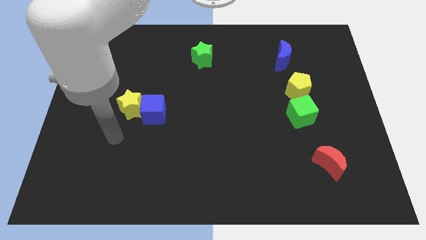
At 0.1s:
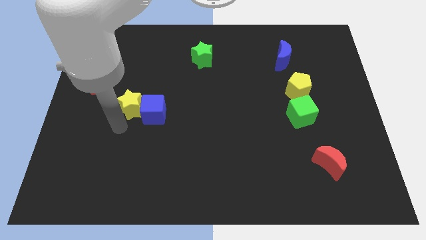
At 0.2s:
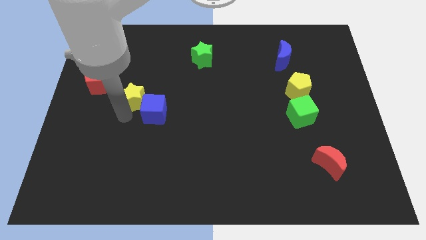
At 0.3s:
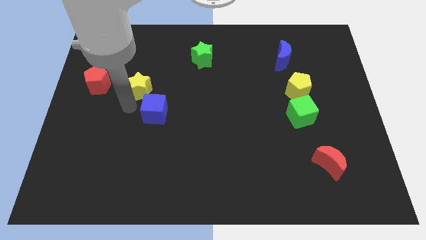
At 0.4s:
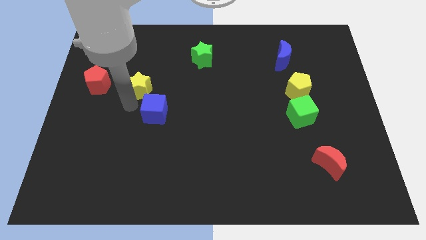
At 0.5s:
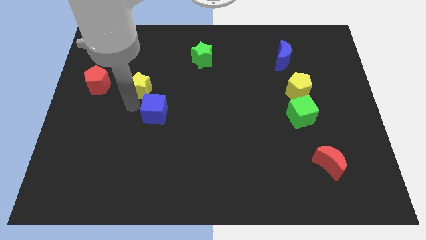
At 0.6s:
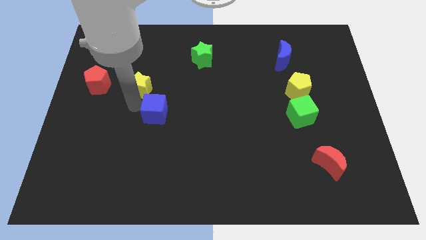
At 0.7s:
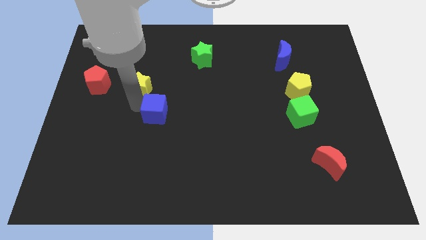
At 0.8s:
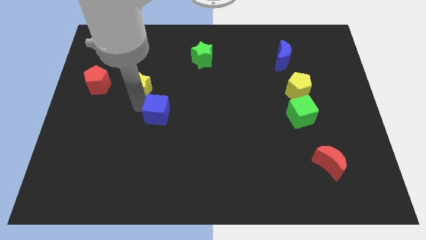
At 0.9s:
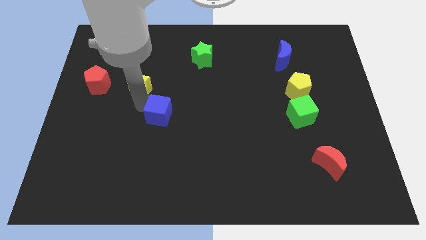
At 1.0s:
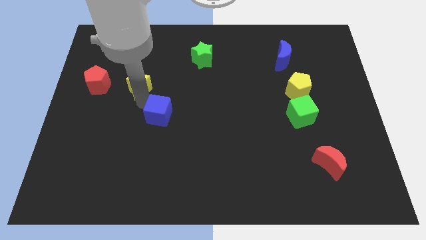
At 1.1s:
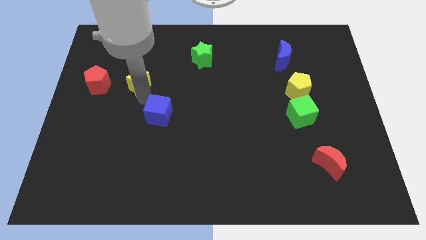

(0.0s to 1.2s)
pull the blue cube apart from the yellow star

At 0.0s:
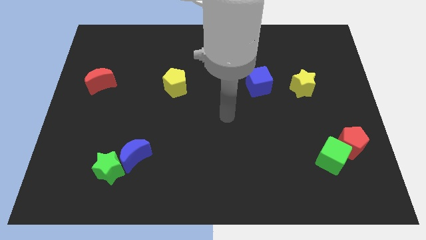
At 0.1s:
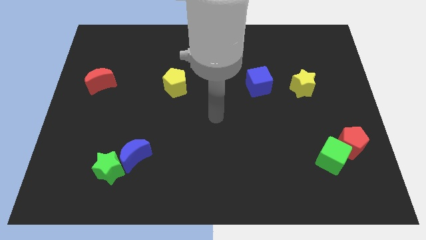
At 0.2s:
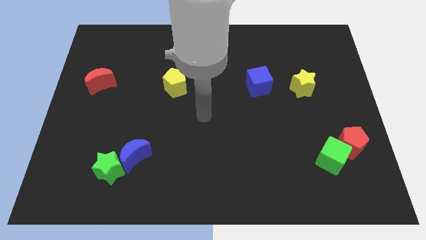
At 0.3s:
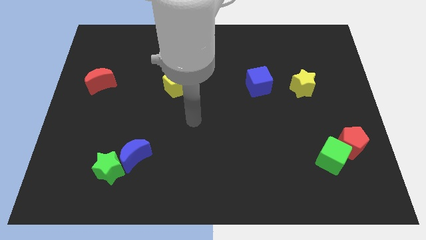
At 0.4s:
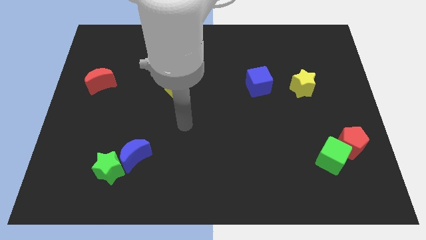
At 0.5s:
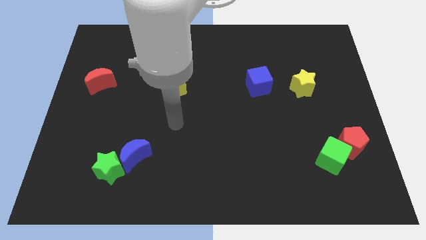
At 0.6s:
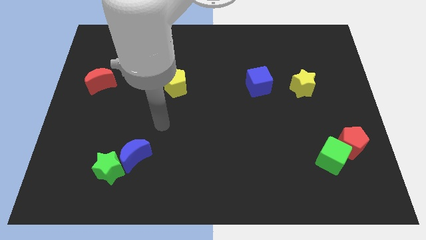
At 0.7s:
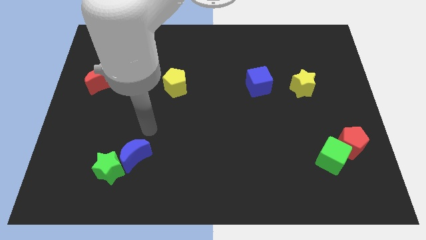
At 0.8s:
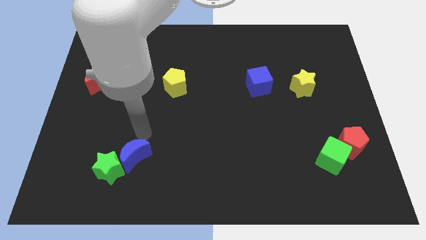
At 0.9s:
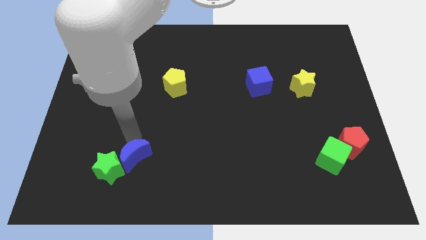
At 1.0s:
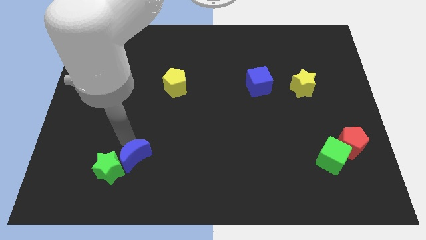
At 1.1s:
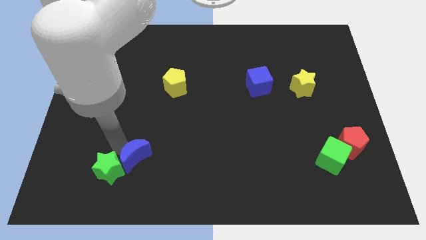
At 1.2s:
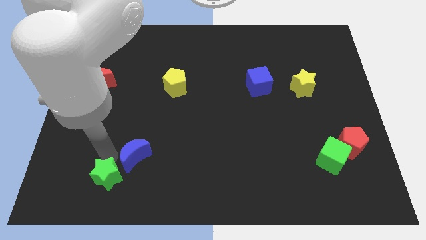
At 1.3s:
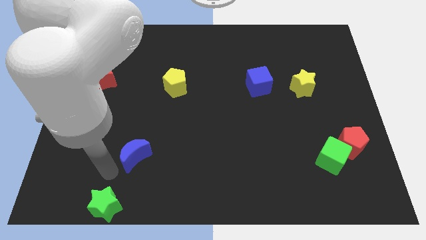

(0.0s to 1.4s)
pull the blue moon apart from the green star

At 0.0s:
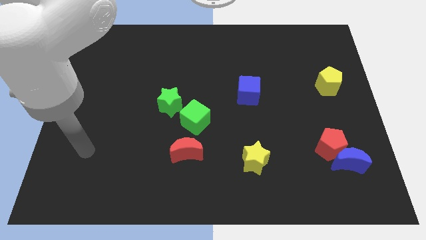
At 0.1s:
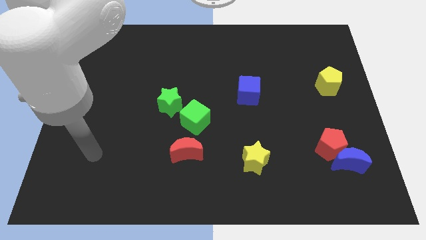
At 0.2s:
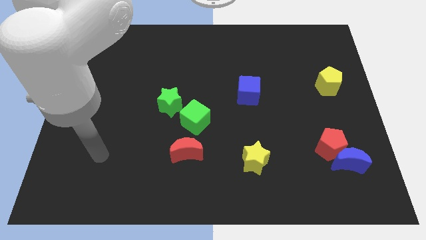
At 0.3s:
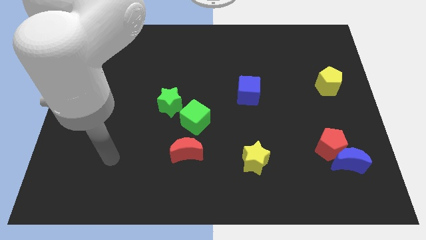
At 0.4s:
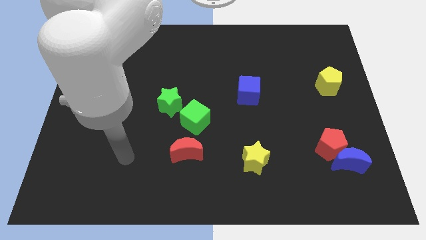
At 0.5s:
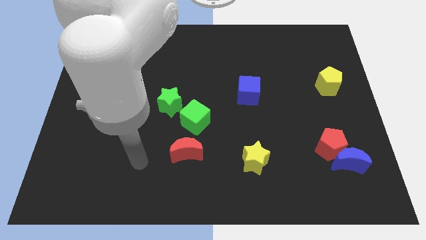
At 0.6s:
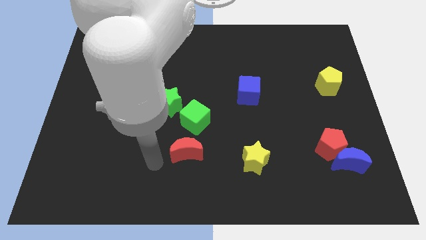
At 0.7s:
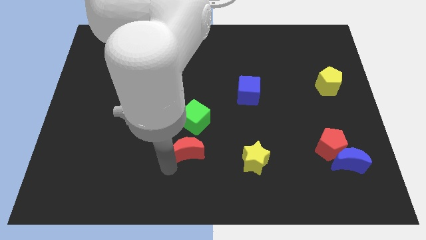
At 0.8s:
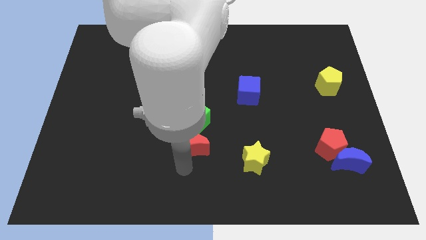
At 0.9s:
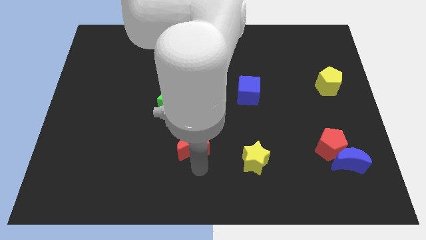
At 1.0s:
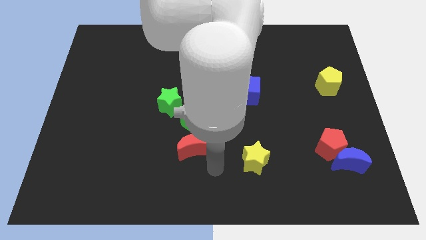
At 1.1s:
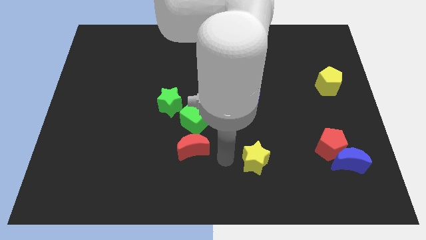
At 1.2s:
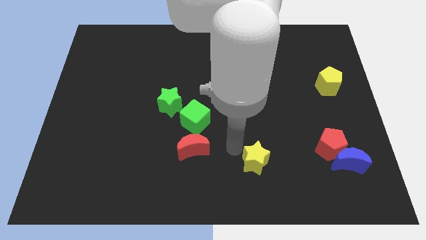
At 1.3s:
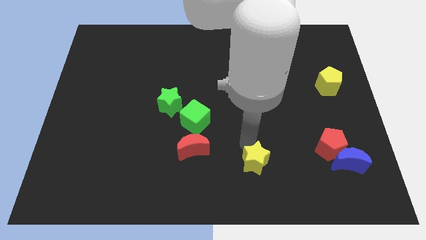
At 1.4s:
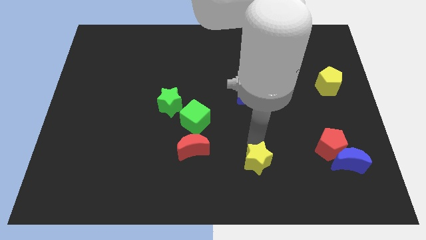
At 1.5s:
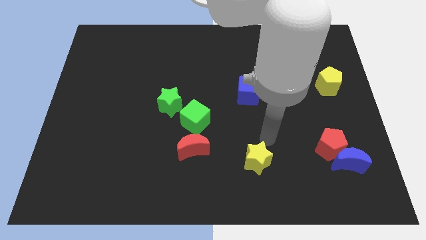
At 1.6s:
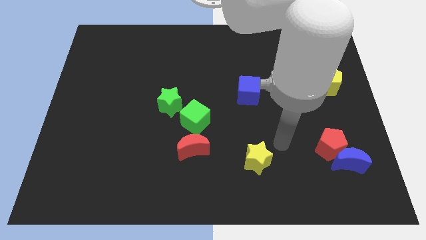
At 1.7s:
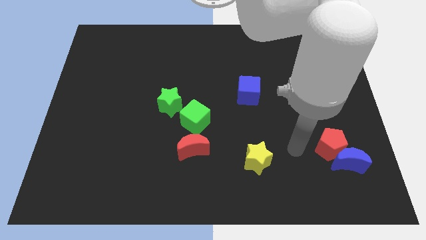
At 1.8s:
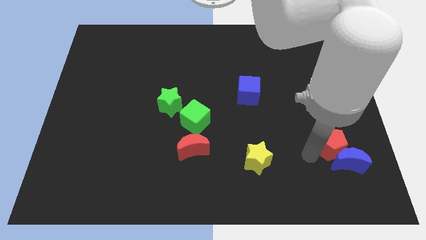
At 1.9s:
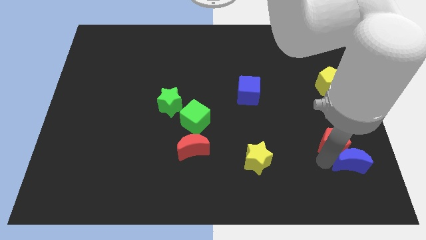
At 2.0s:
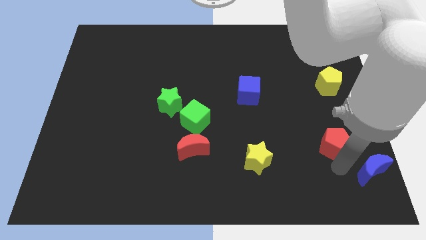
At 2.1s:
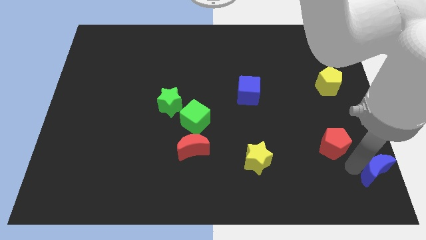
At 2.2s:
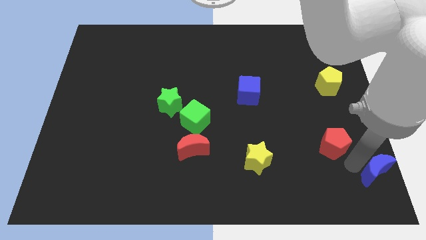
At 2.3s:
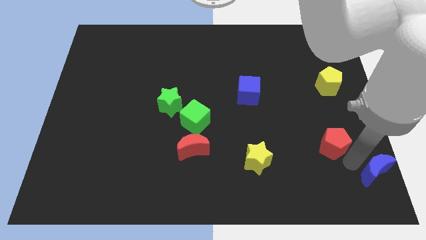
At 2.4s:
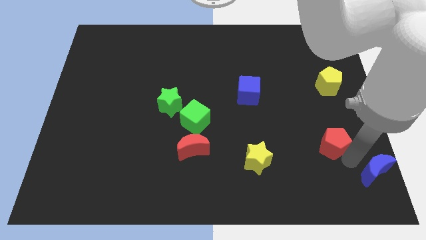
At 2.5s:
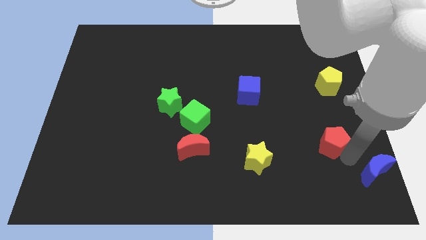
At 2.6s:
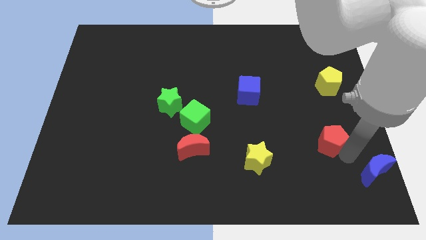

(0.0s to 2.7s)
pull the red pentagon apart from the blue moon

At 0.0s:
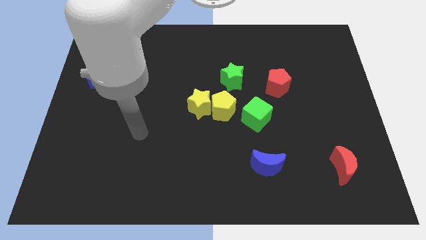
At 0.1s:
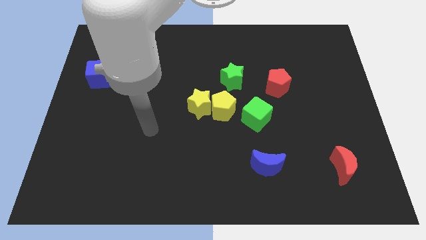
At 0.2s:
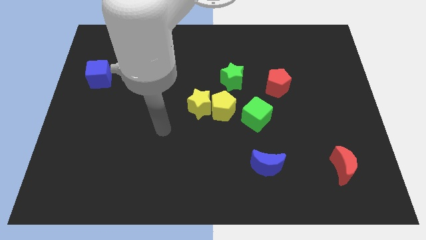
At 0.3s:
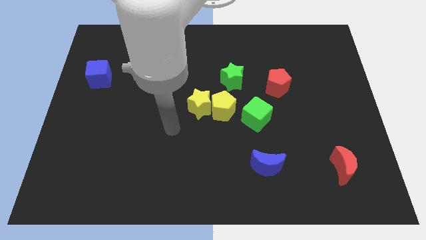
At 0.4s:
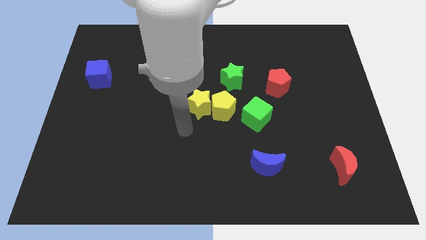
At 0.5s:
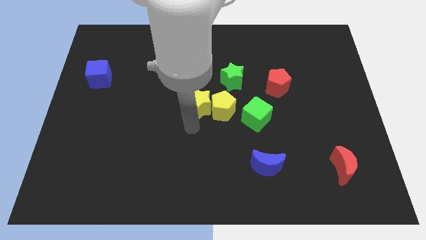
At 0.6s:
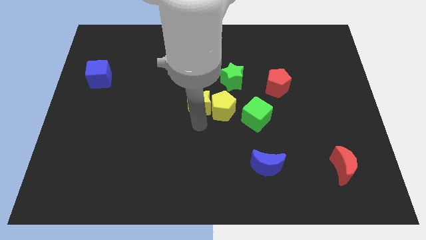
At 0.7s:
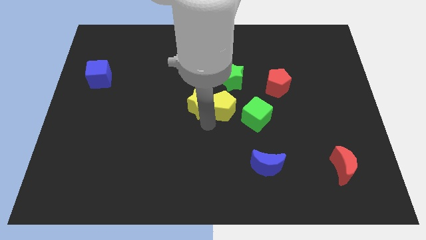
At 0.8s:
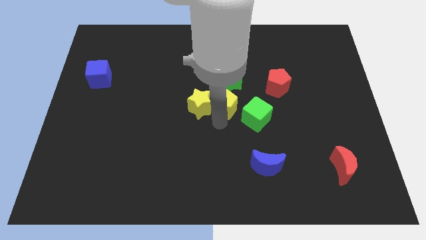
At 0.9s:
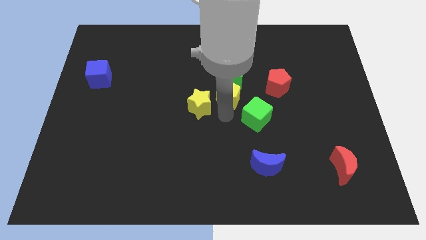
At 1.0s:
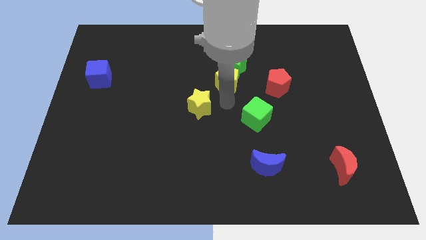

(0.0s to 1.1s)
pull the yellow star apart from the yellow pentagon

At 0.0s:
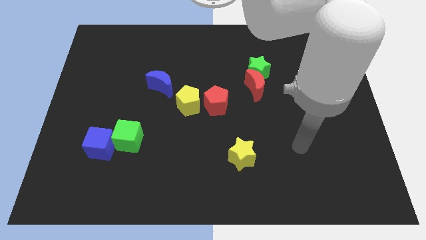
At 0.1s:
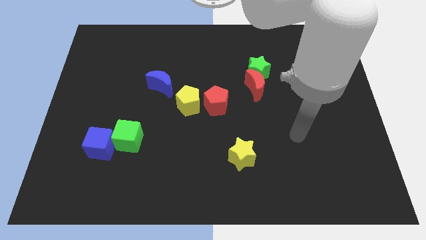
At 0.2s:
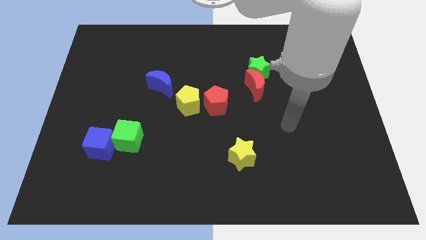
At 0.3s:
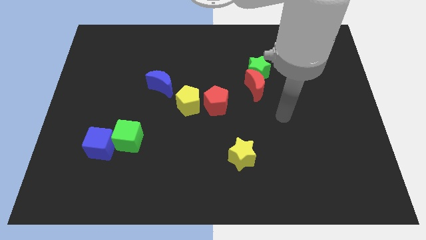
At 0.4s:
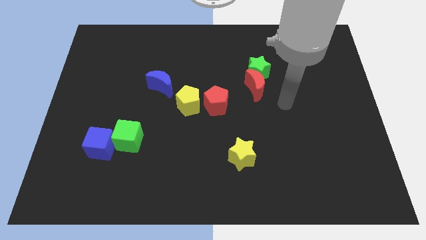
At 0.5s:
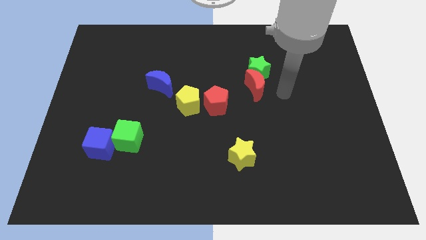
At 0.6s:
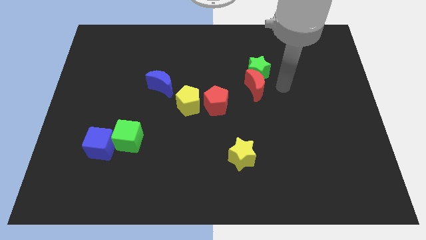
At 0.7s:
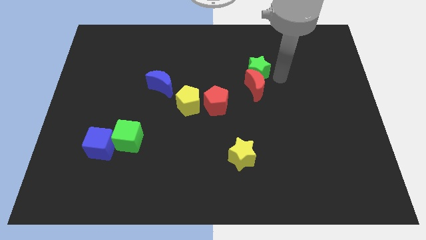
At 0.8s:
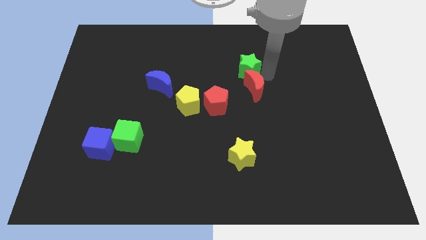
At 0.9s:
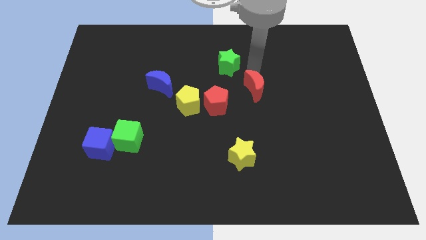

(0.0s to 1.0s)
pull the red moon apart from the green star

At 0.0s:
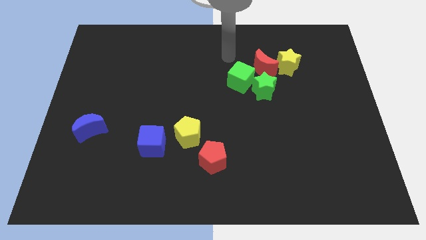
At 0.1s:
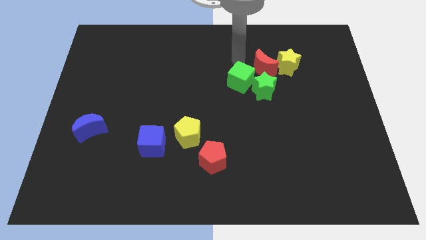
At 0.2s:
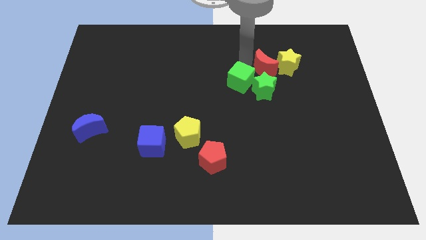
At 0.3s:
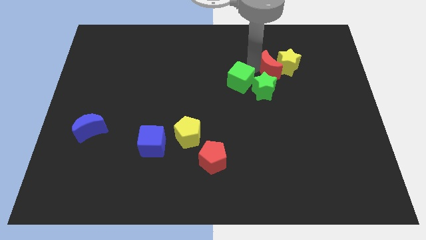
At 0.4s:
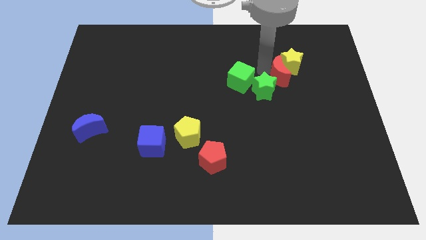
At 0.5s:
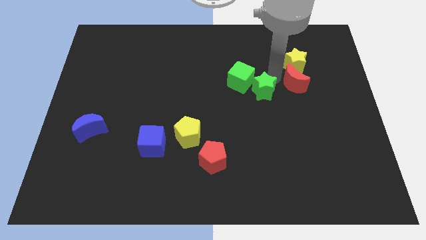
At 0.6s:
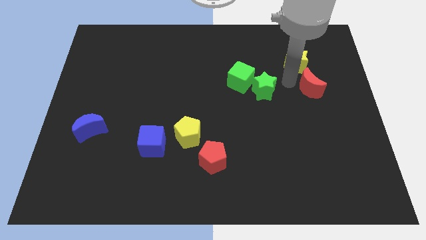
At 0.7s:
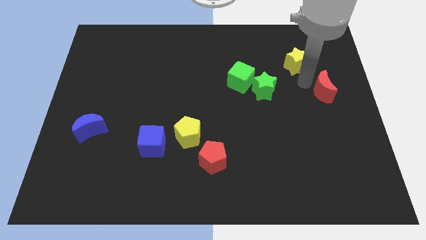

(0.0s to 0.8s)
pull the yellow star apart from the red moon

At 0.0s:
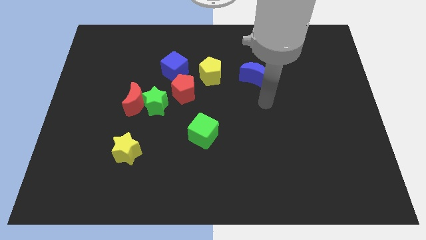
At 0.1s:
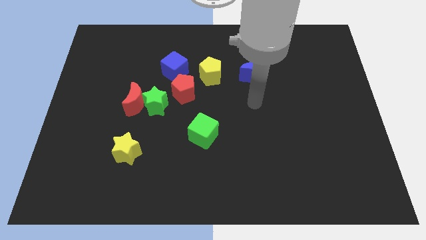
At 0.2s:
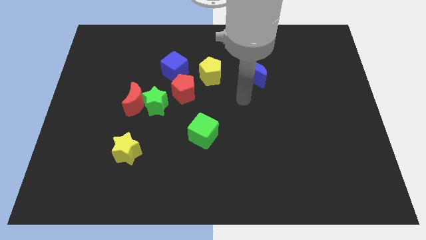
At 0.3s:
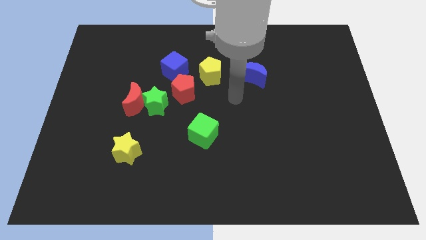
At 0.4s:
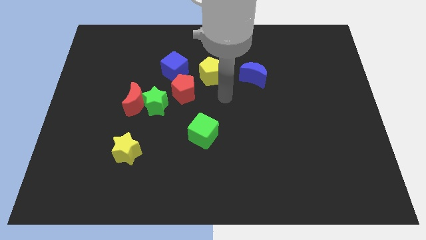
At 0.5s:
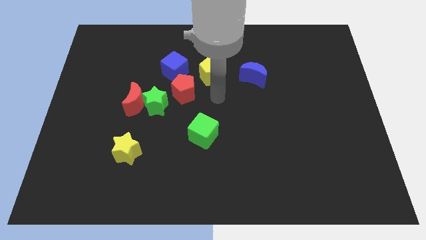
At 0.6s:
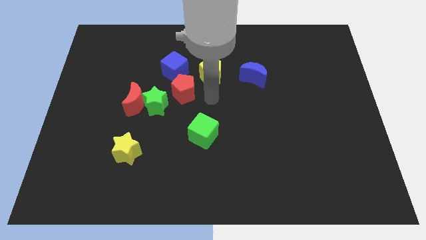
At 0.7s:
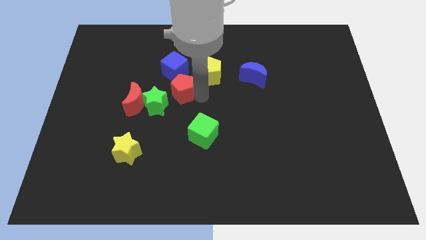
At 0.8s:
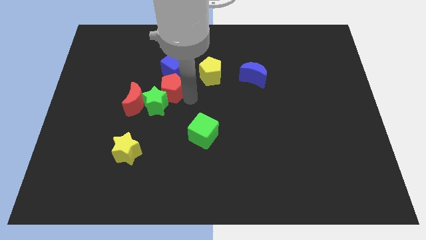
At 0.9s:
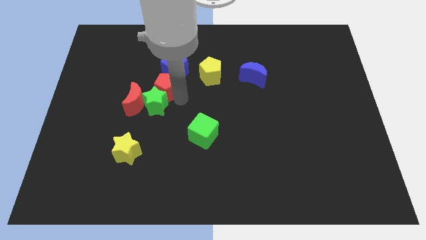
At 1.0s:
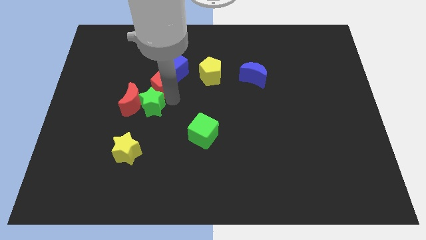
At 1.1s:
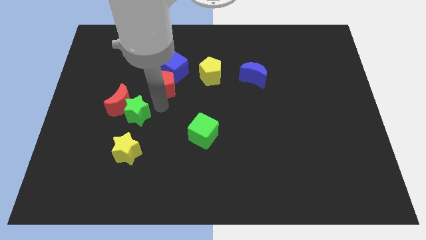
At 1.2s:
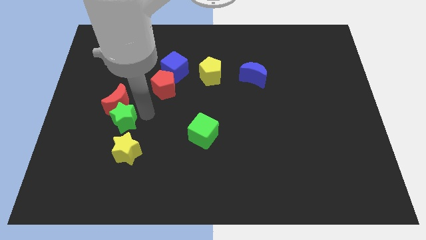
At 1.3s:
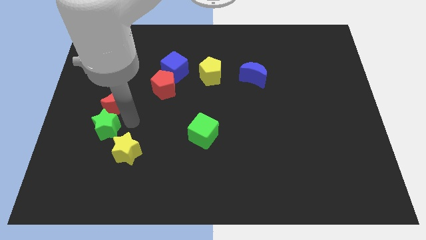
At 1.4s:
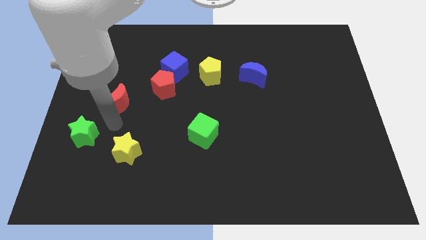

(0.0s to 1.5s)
separate the red moon from the green star
